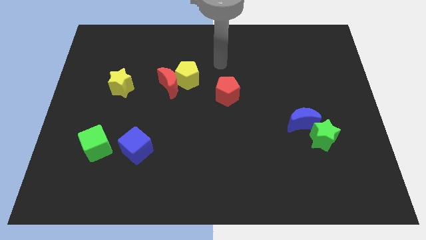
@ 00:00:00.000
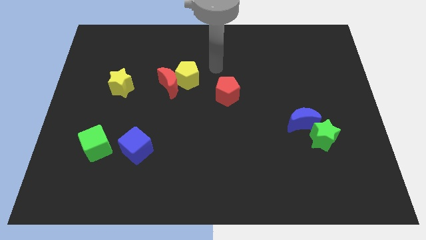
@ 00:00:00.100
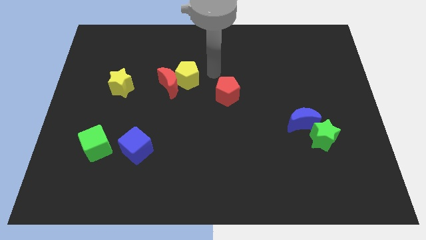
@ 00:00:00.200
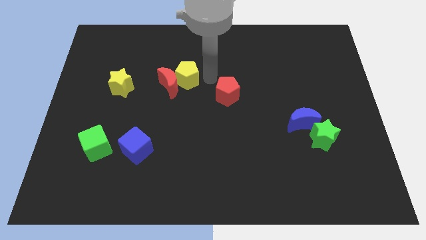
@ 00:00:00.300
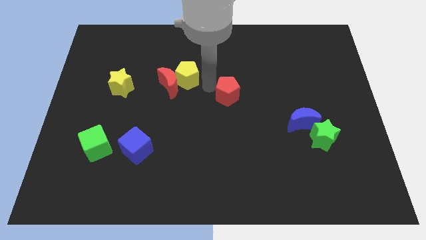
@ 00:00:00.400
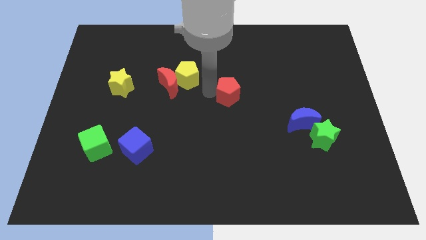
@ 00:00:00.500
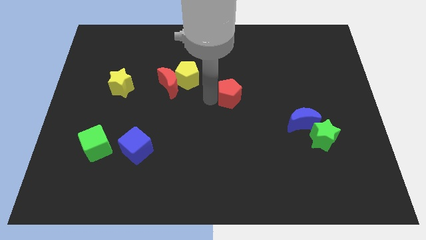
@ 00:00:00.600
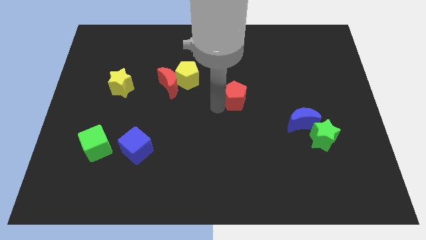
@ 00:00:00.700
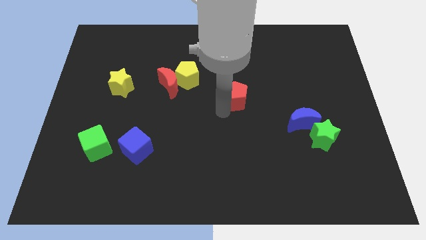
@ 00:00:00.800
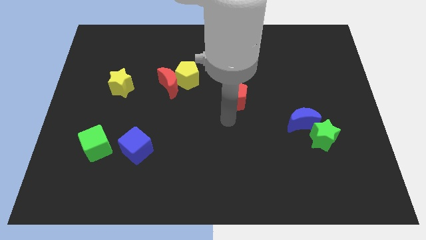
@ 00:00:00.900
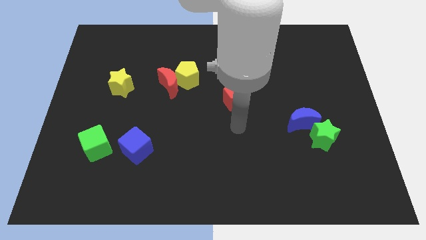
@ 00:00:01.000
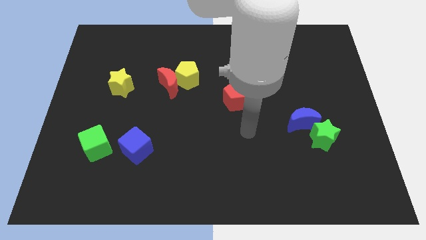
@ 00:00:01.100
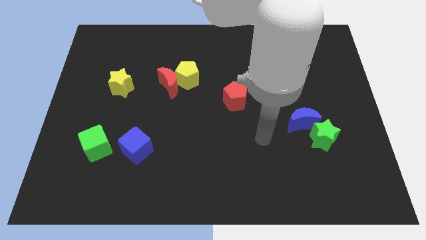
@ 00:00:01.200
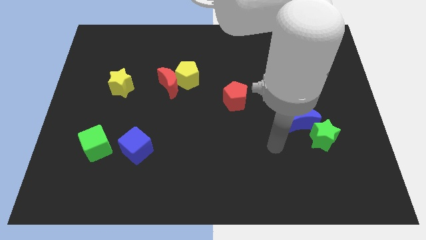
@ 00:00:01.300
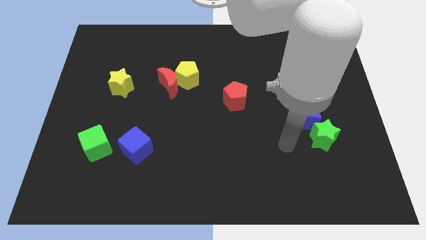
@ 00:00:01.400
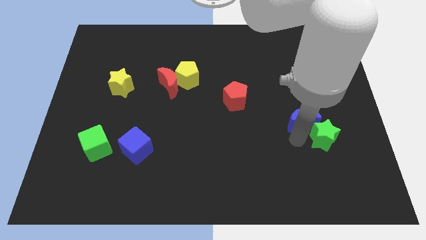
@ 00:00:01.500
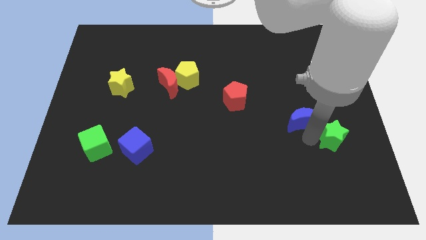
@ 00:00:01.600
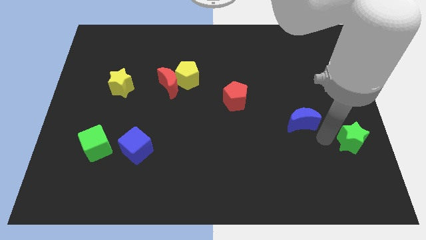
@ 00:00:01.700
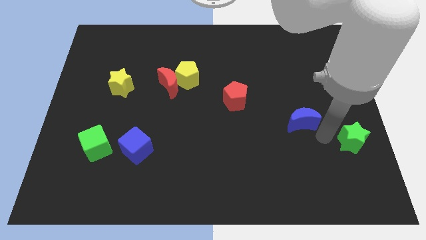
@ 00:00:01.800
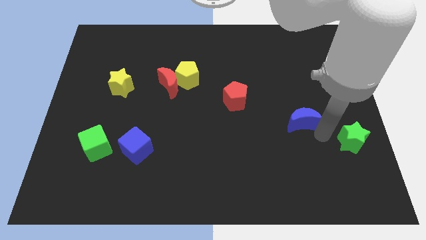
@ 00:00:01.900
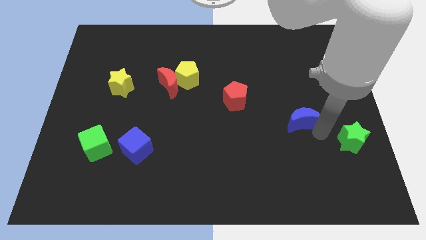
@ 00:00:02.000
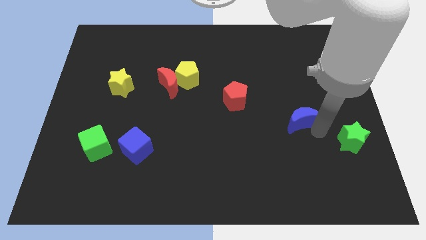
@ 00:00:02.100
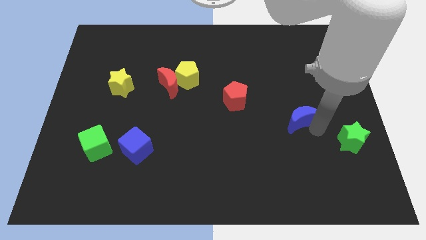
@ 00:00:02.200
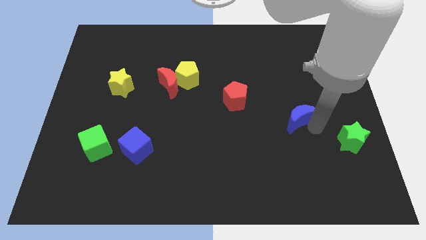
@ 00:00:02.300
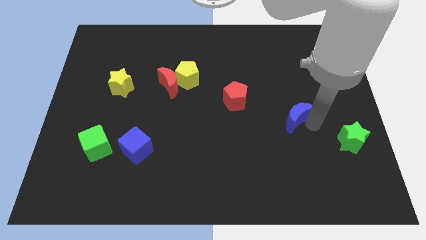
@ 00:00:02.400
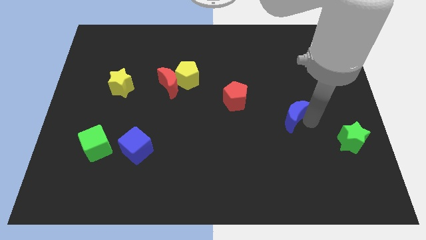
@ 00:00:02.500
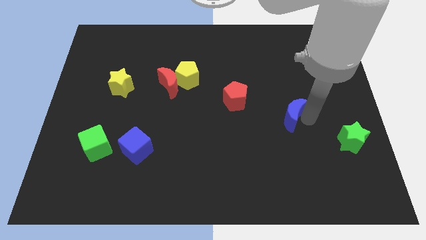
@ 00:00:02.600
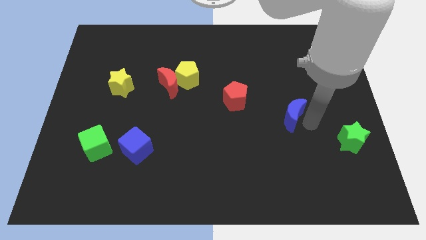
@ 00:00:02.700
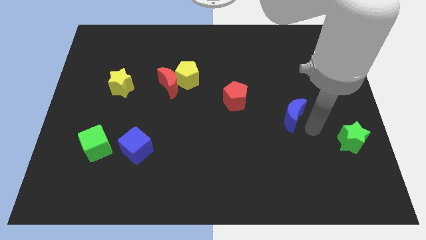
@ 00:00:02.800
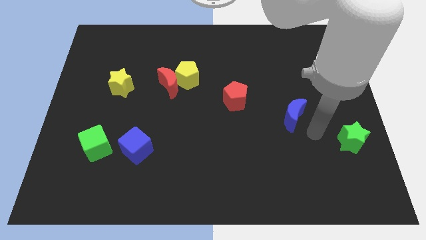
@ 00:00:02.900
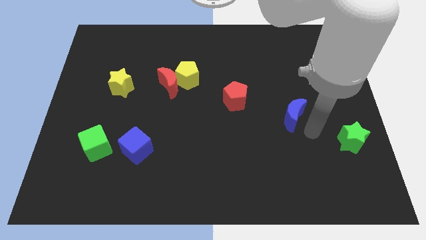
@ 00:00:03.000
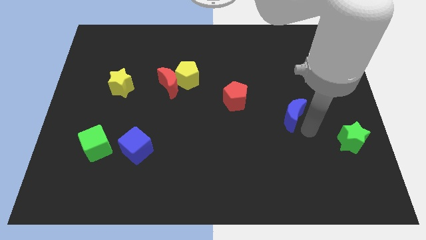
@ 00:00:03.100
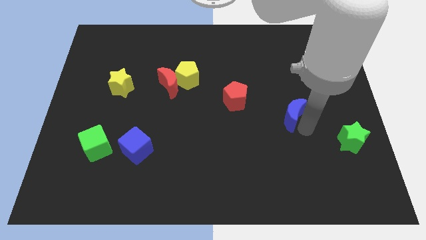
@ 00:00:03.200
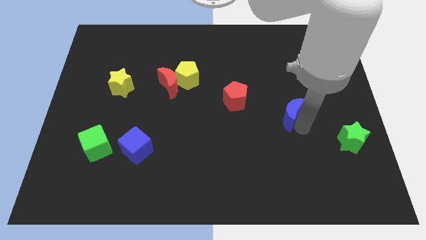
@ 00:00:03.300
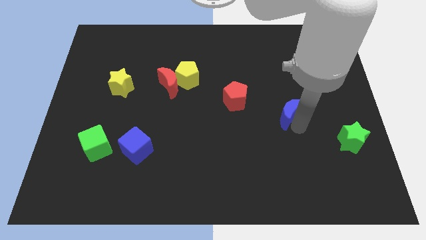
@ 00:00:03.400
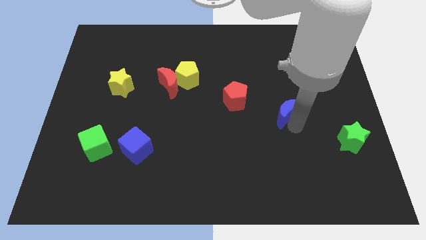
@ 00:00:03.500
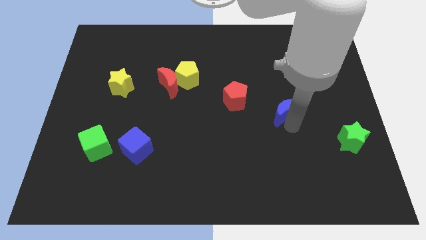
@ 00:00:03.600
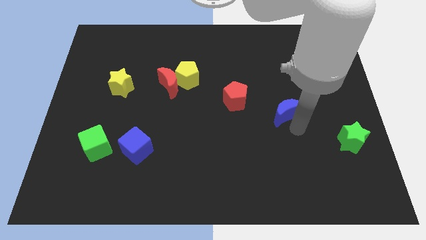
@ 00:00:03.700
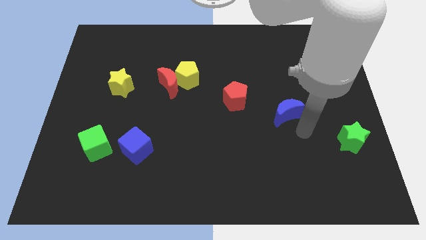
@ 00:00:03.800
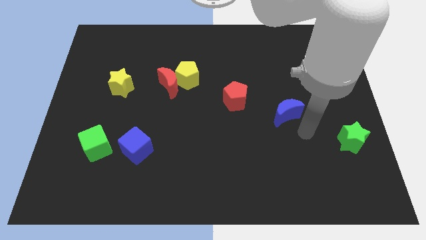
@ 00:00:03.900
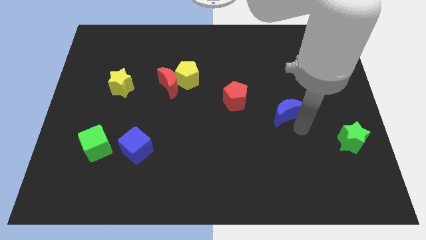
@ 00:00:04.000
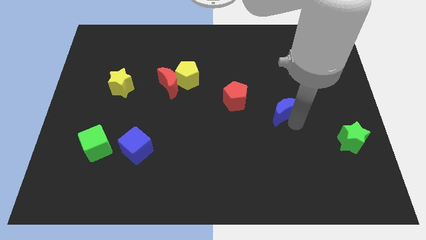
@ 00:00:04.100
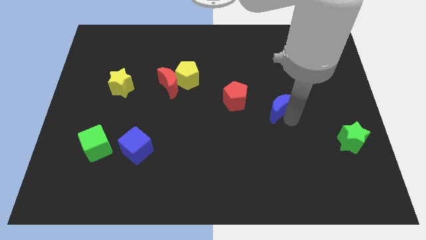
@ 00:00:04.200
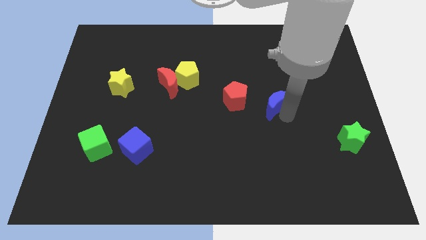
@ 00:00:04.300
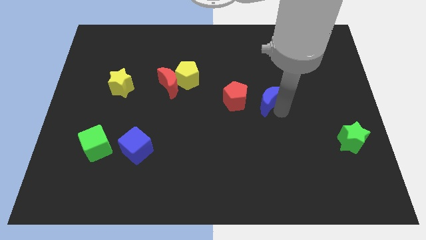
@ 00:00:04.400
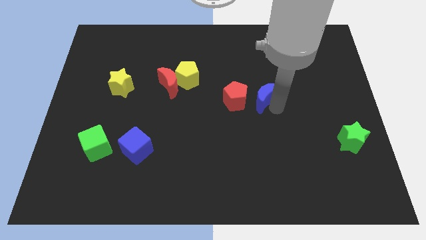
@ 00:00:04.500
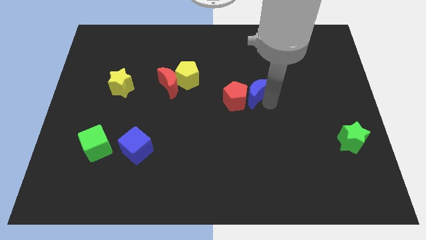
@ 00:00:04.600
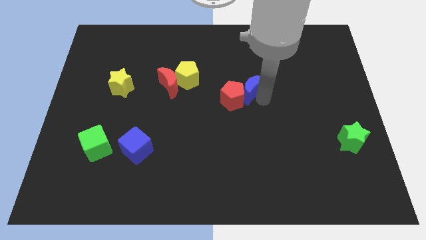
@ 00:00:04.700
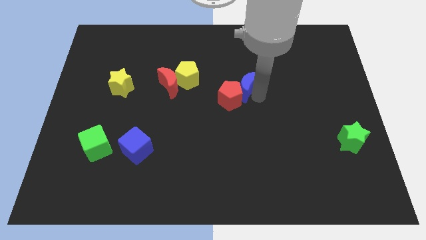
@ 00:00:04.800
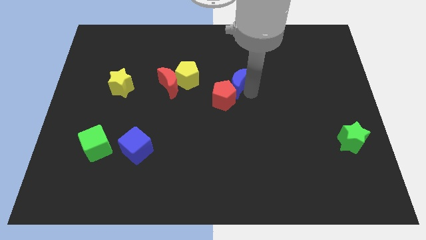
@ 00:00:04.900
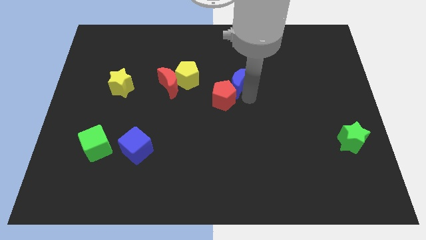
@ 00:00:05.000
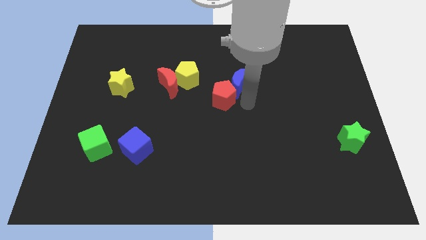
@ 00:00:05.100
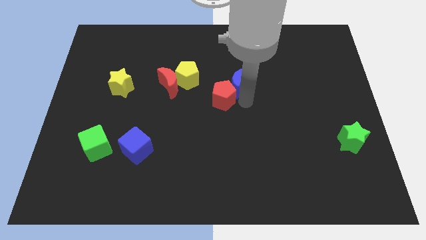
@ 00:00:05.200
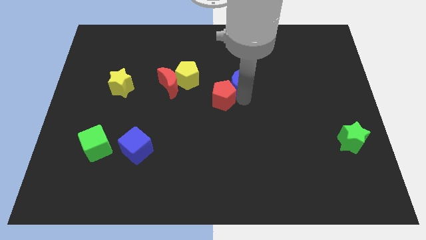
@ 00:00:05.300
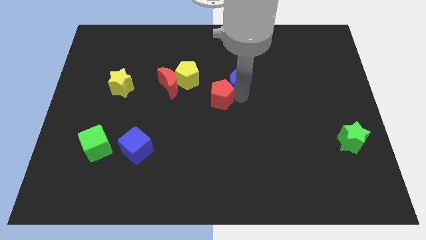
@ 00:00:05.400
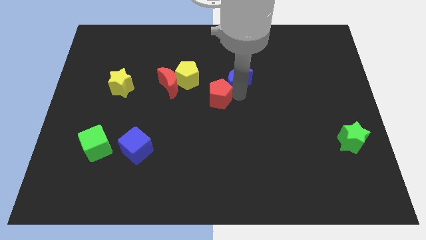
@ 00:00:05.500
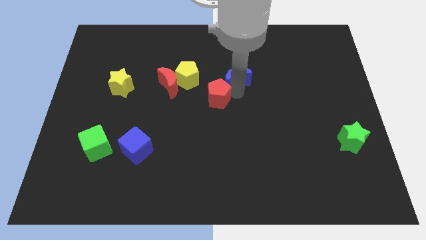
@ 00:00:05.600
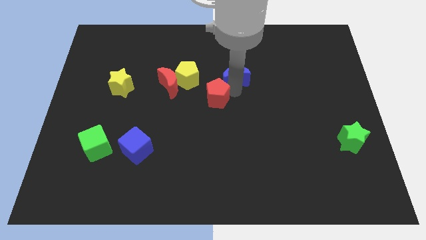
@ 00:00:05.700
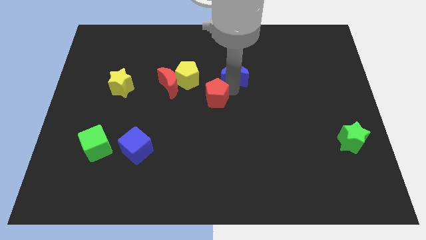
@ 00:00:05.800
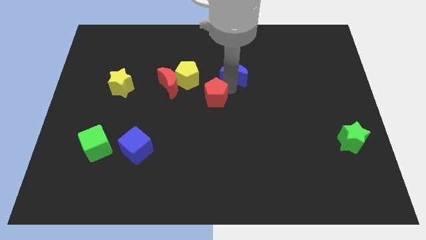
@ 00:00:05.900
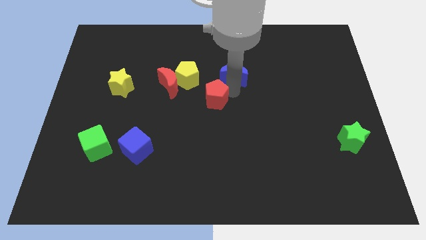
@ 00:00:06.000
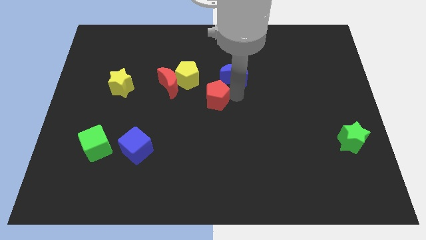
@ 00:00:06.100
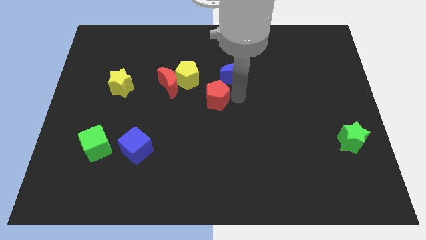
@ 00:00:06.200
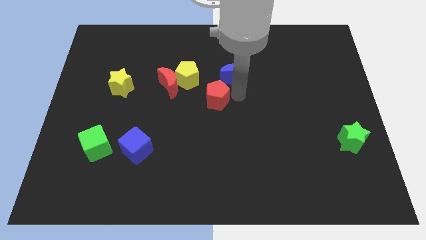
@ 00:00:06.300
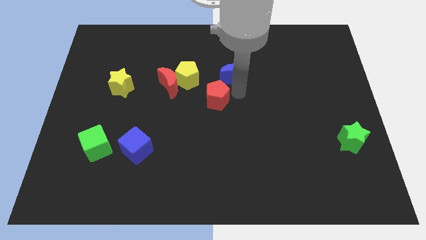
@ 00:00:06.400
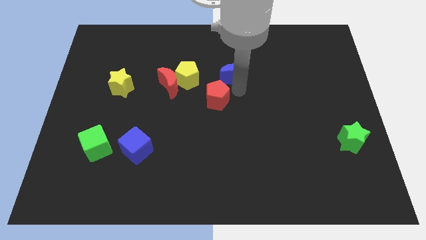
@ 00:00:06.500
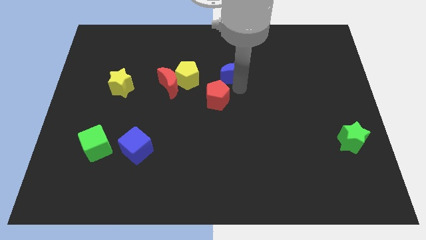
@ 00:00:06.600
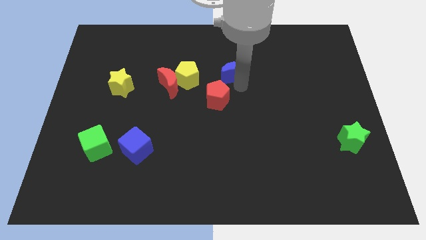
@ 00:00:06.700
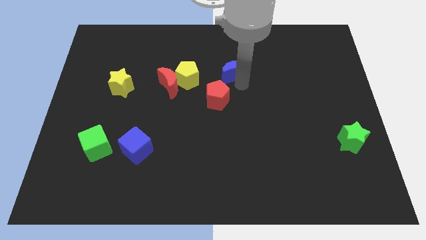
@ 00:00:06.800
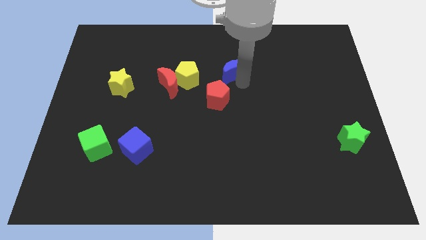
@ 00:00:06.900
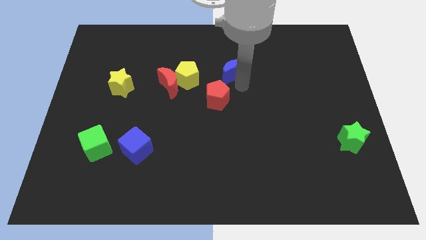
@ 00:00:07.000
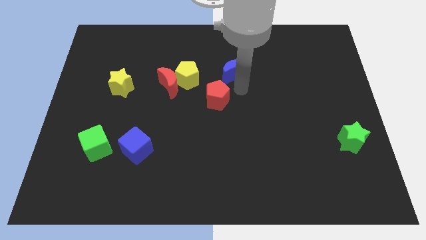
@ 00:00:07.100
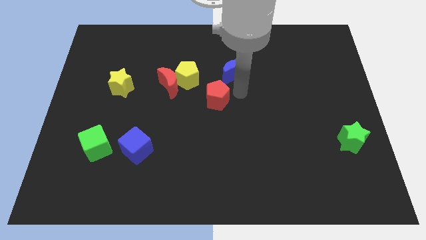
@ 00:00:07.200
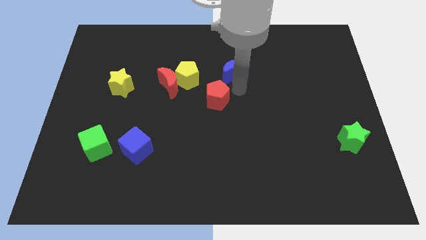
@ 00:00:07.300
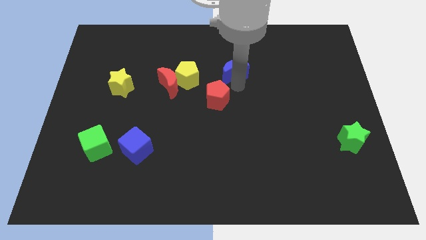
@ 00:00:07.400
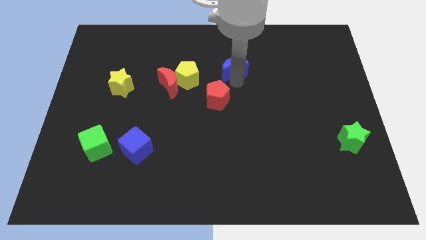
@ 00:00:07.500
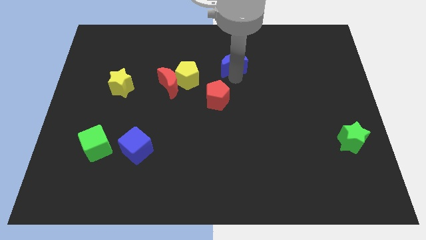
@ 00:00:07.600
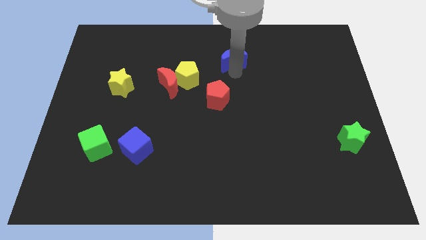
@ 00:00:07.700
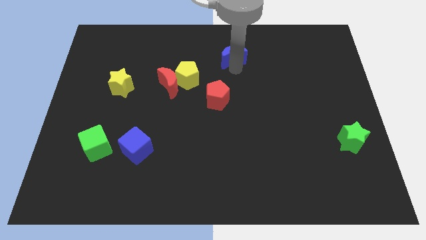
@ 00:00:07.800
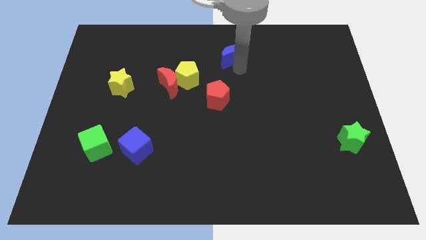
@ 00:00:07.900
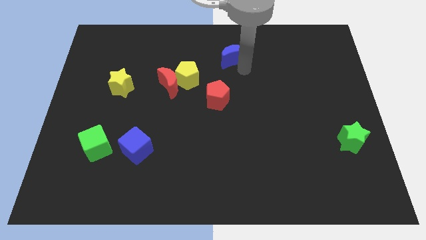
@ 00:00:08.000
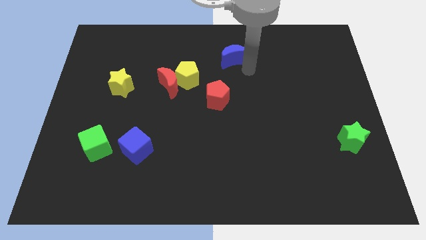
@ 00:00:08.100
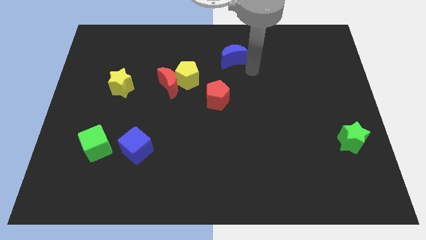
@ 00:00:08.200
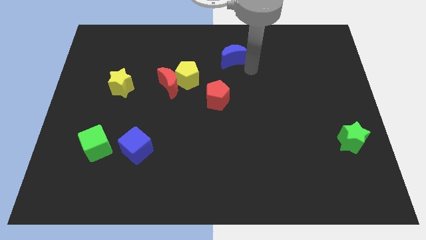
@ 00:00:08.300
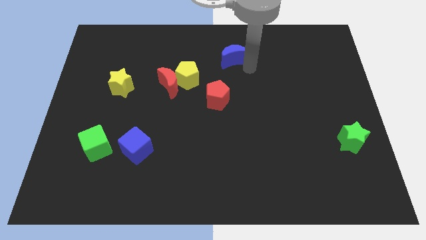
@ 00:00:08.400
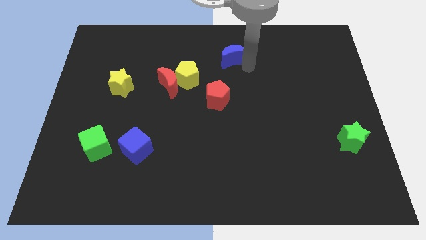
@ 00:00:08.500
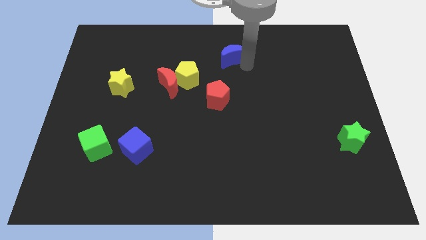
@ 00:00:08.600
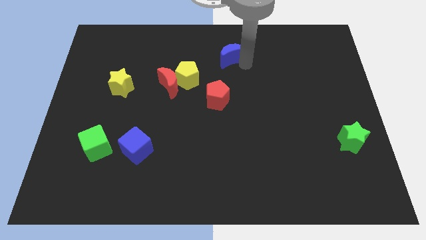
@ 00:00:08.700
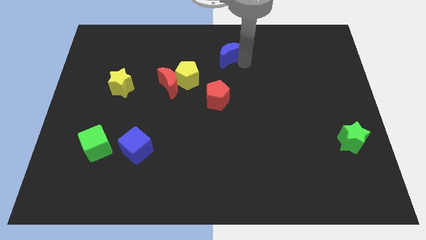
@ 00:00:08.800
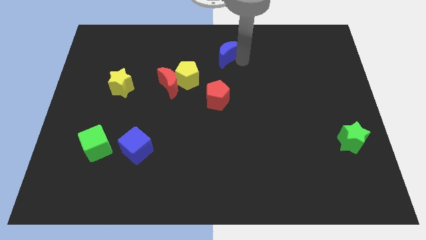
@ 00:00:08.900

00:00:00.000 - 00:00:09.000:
push the blue moon to the top
